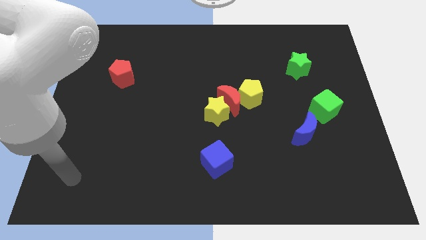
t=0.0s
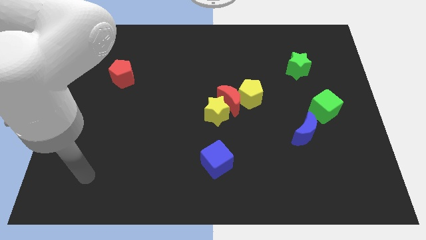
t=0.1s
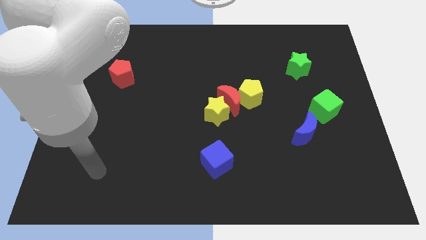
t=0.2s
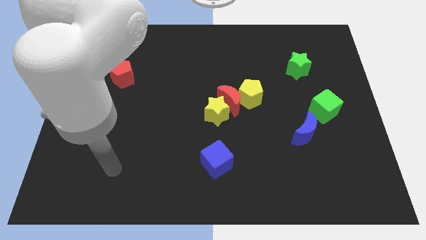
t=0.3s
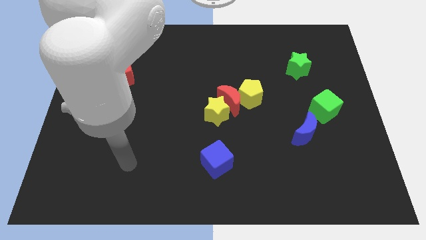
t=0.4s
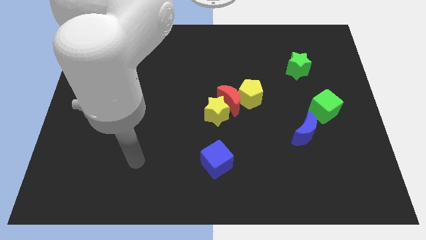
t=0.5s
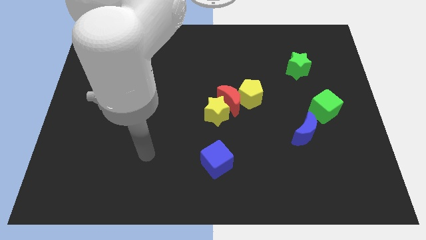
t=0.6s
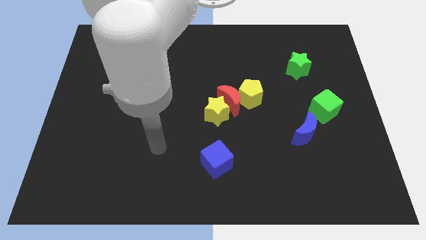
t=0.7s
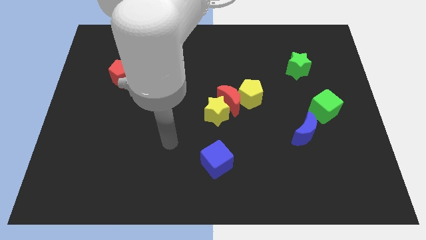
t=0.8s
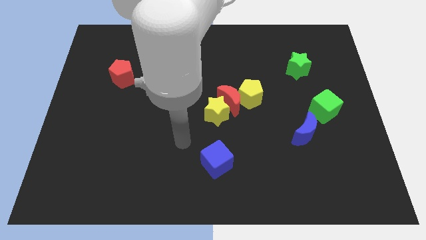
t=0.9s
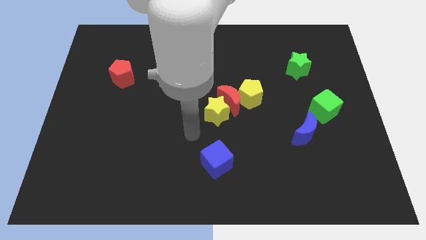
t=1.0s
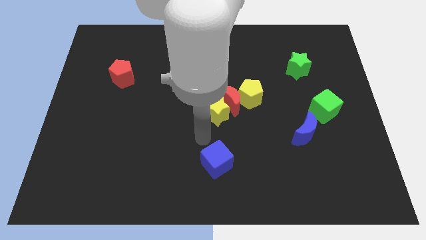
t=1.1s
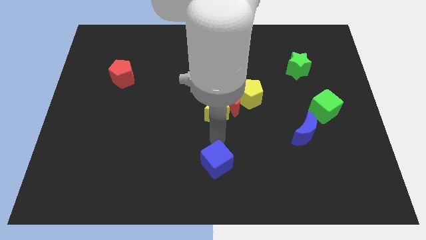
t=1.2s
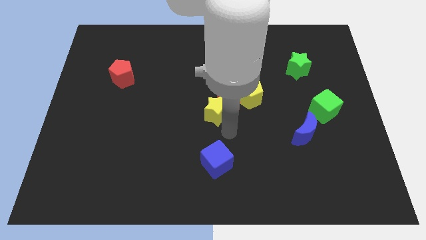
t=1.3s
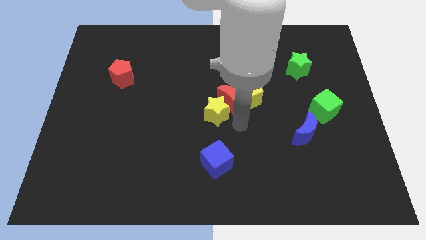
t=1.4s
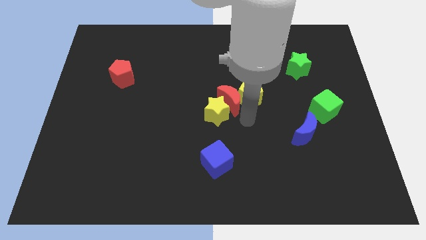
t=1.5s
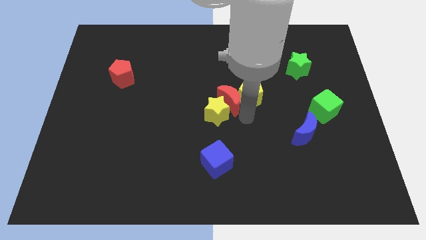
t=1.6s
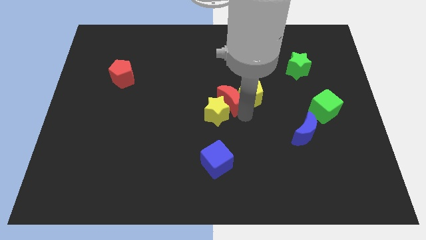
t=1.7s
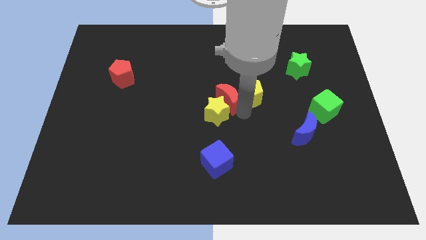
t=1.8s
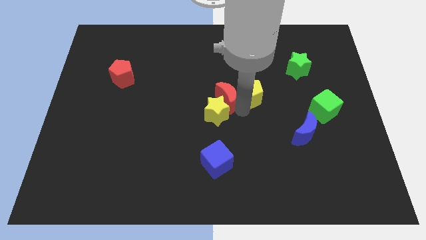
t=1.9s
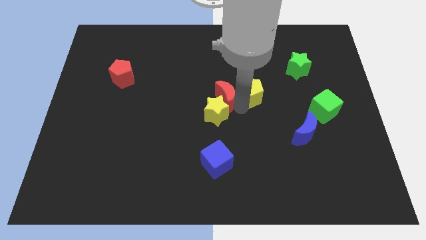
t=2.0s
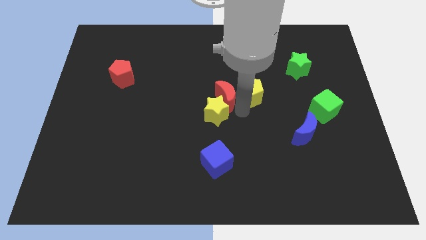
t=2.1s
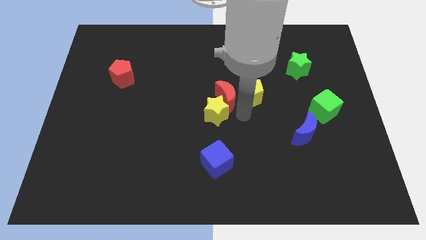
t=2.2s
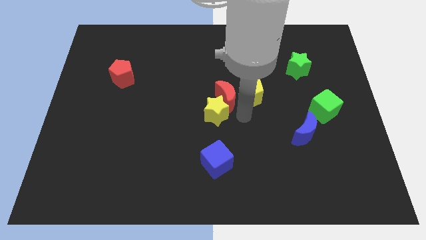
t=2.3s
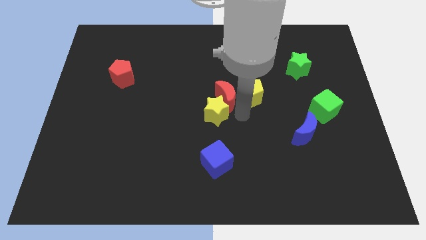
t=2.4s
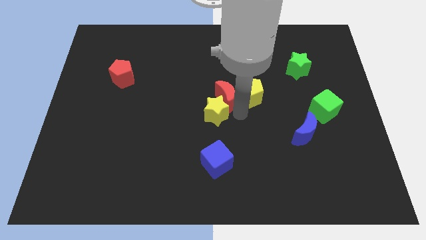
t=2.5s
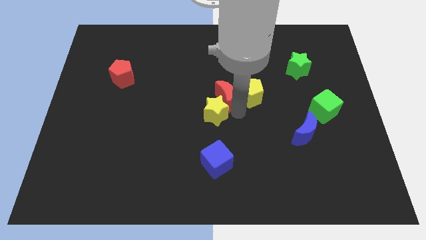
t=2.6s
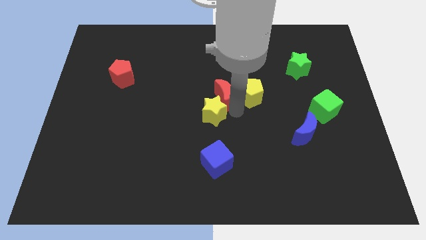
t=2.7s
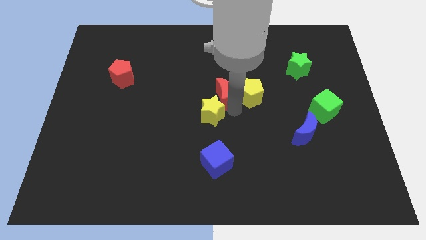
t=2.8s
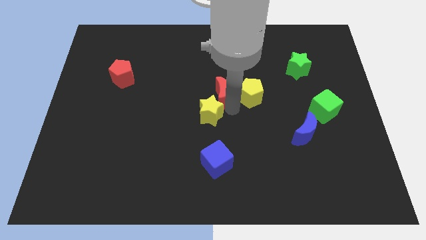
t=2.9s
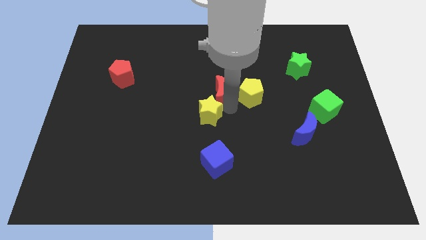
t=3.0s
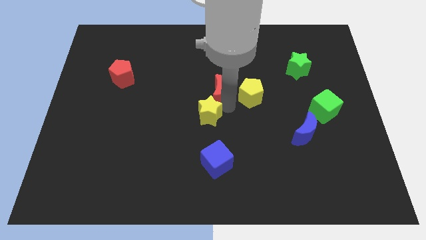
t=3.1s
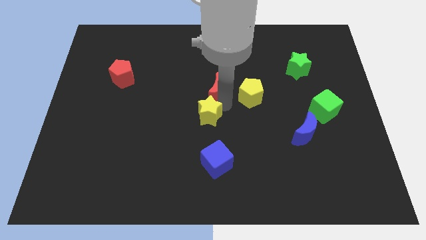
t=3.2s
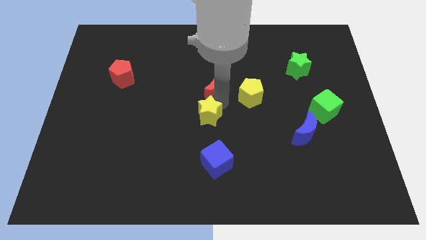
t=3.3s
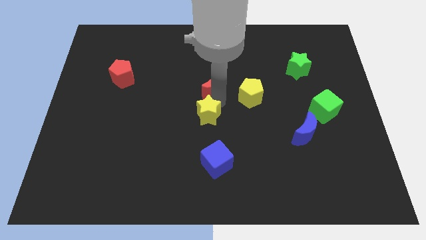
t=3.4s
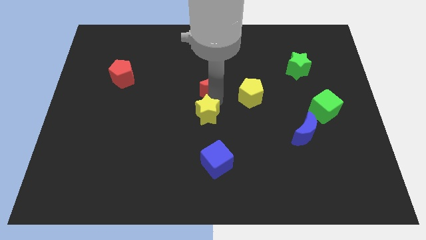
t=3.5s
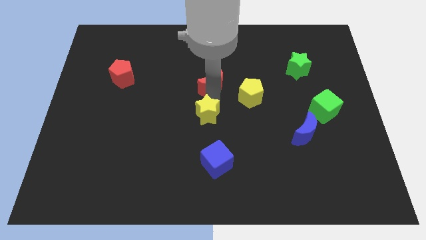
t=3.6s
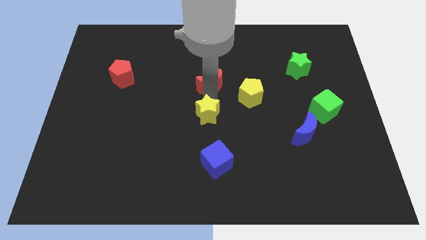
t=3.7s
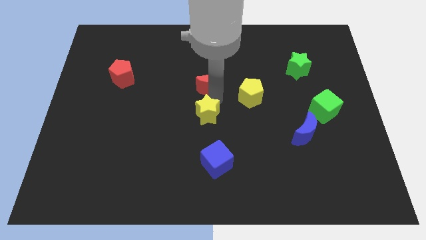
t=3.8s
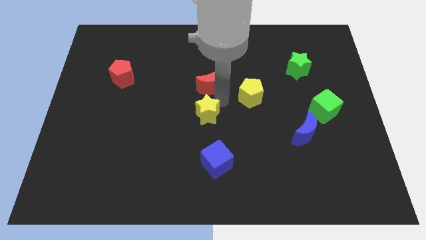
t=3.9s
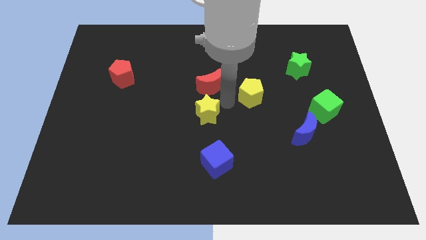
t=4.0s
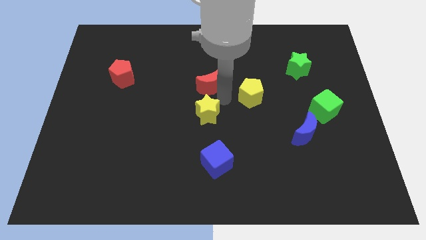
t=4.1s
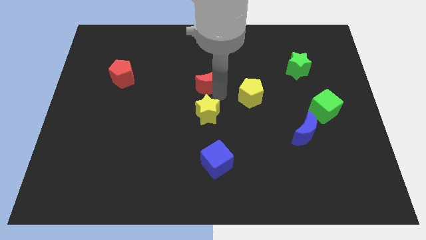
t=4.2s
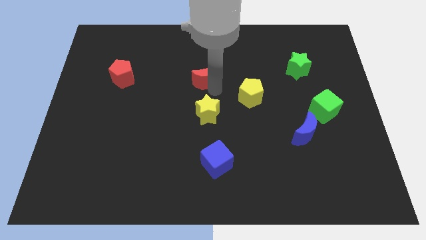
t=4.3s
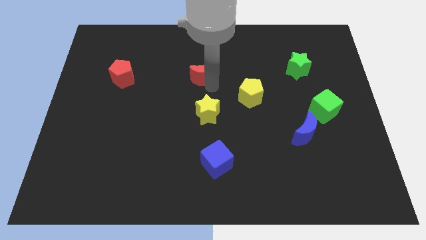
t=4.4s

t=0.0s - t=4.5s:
separate the red moon from the yellow star and yellow pentagon

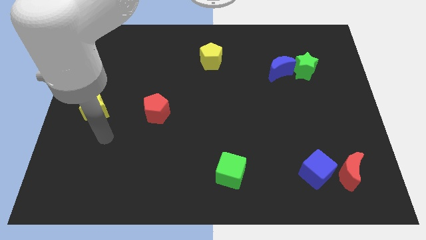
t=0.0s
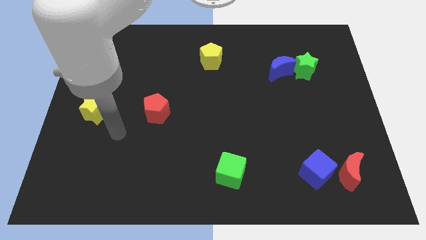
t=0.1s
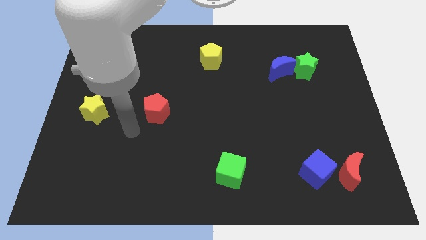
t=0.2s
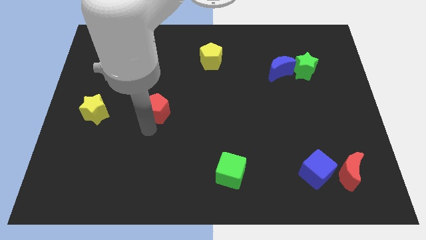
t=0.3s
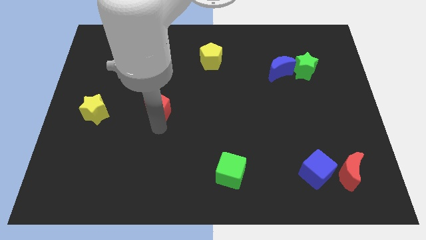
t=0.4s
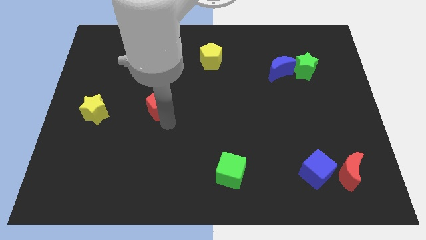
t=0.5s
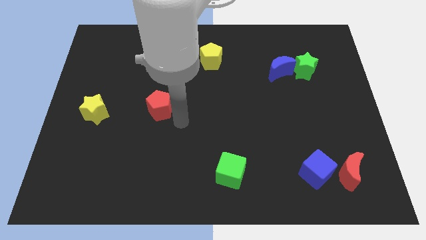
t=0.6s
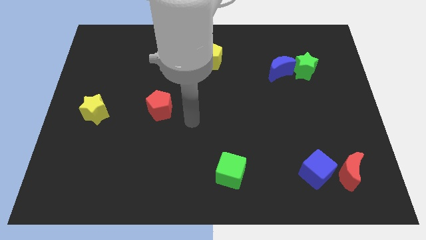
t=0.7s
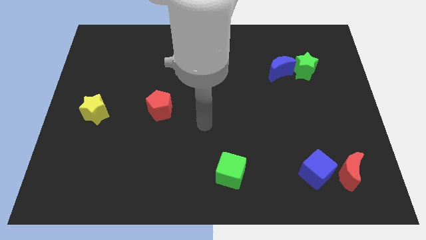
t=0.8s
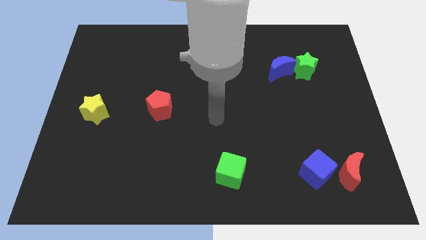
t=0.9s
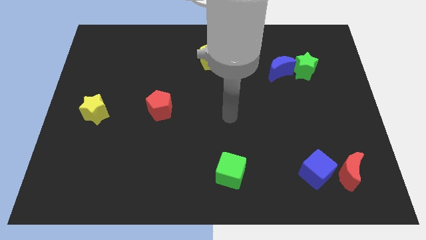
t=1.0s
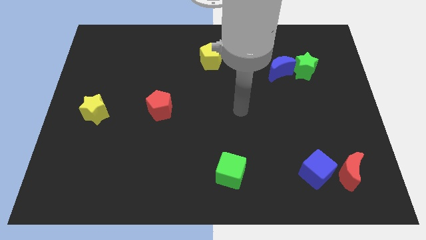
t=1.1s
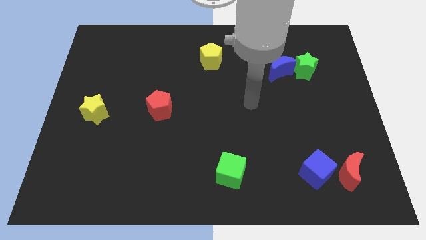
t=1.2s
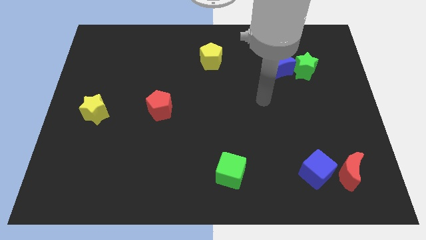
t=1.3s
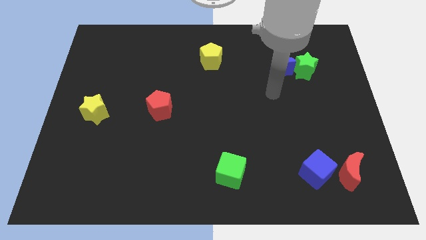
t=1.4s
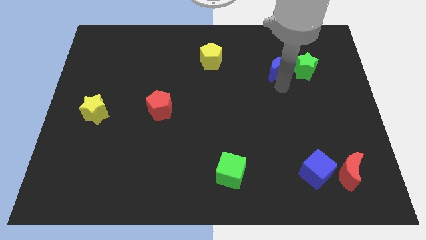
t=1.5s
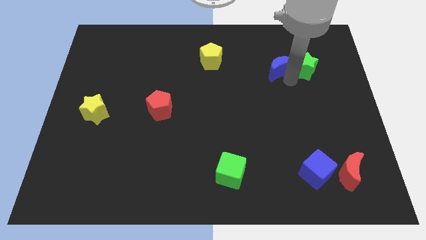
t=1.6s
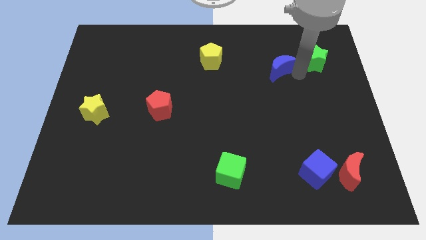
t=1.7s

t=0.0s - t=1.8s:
move the blue moon away from the green star

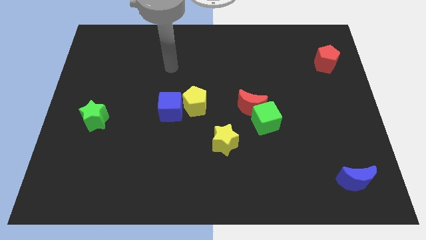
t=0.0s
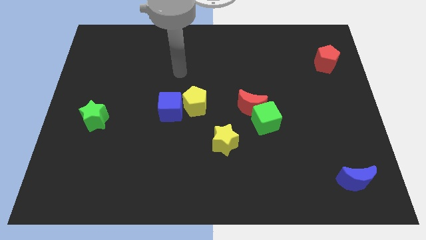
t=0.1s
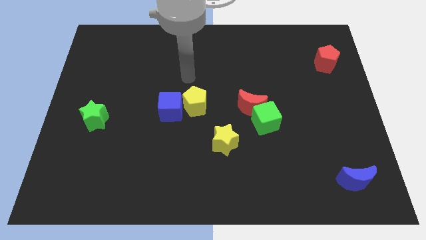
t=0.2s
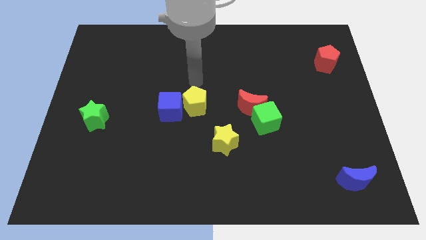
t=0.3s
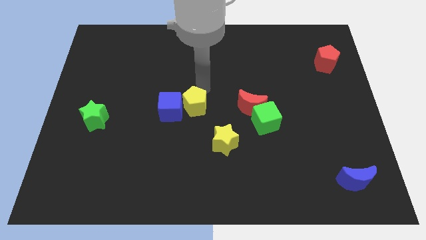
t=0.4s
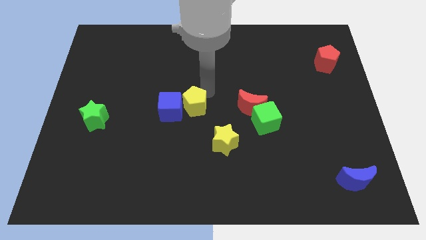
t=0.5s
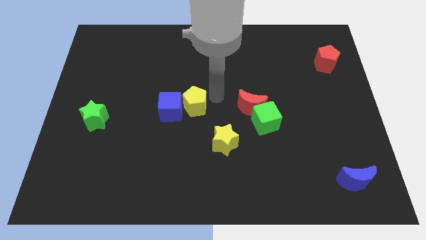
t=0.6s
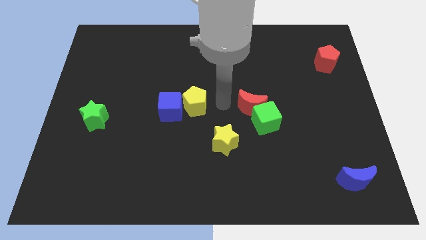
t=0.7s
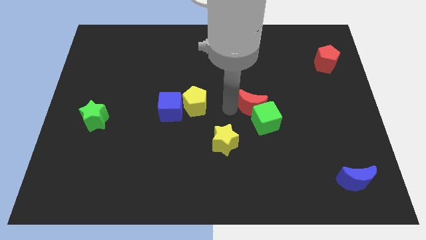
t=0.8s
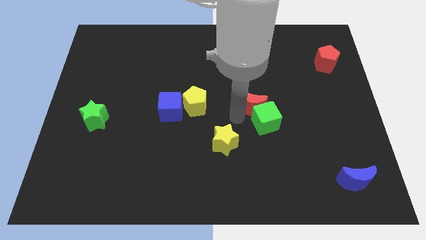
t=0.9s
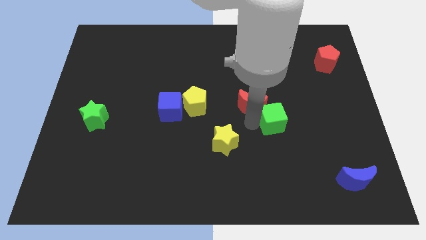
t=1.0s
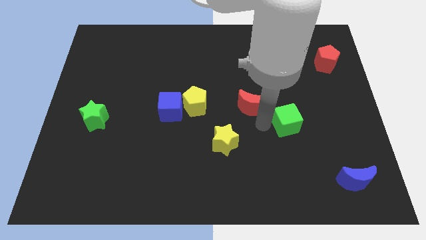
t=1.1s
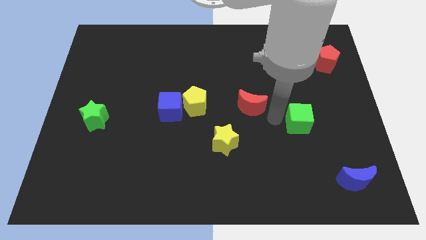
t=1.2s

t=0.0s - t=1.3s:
separate the red moon from the green cube

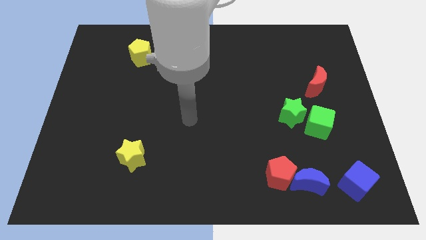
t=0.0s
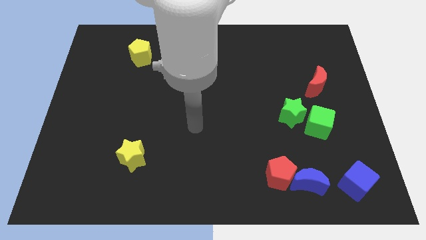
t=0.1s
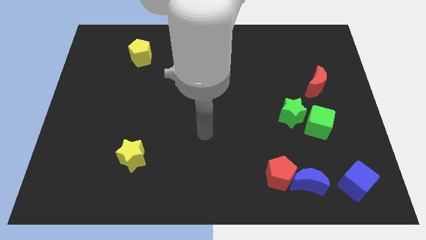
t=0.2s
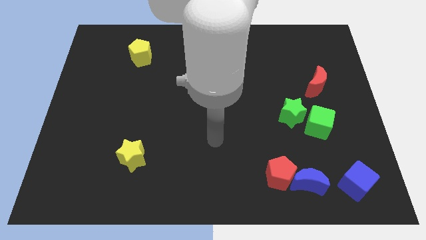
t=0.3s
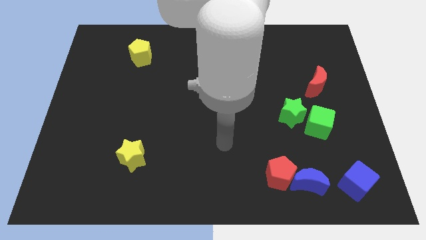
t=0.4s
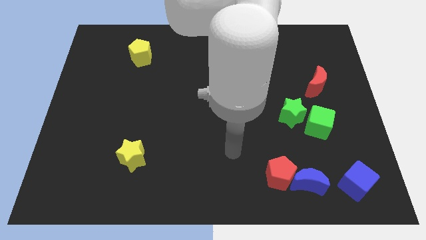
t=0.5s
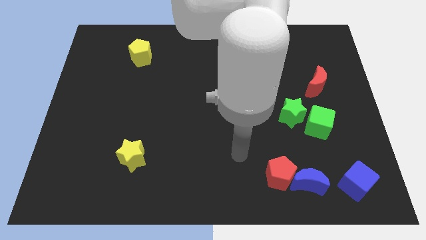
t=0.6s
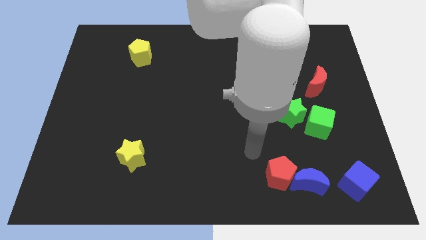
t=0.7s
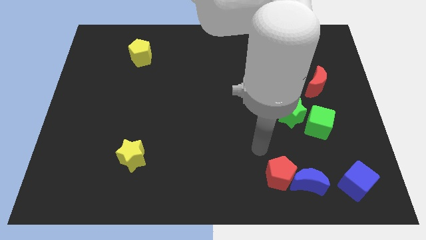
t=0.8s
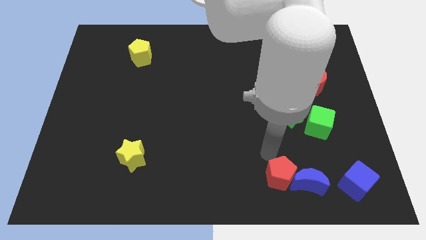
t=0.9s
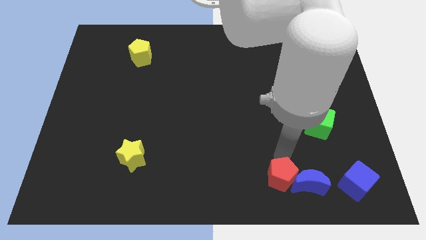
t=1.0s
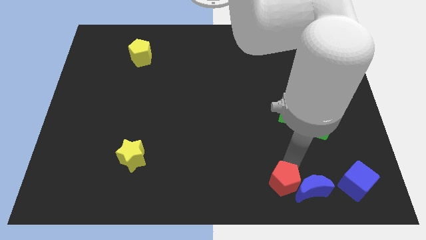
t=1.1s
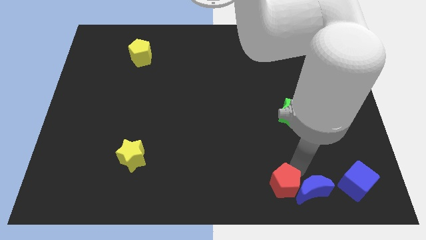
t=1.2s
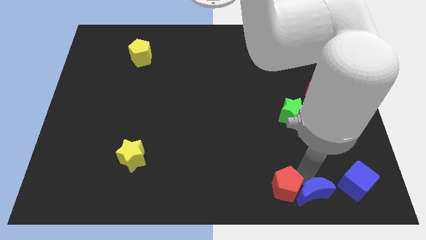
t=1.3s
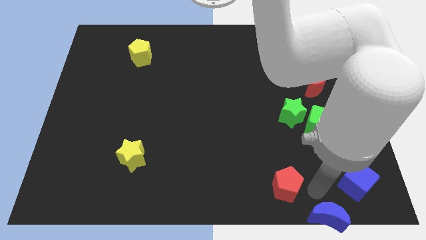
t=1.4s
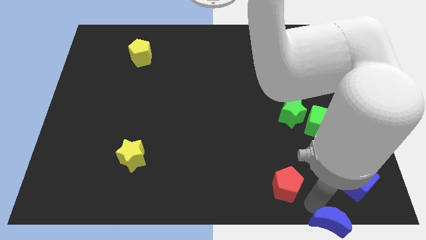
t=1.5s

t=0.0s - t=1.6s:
pull the red pentagon apart from the blue moon

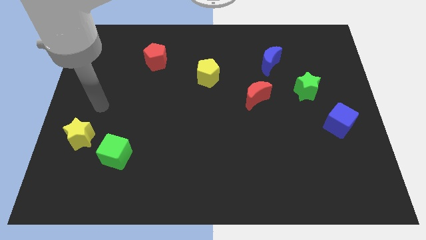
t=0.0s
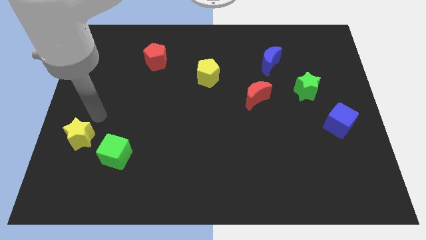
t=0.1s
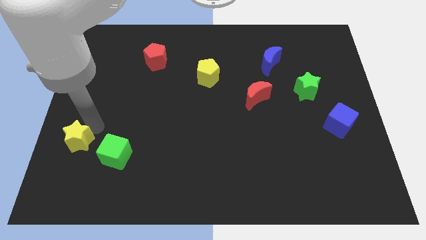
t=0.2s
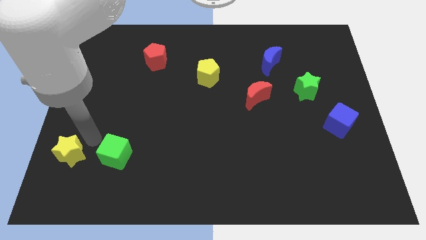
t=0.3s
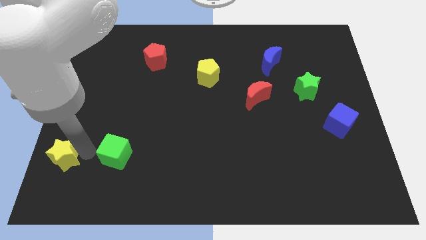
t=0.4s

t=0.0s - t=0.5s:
move the green cube away from the yellow star
